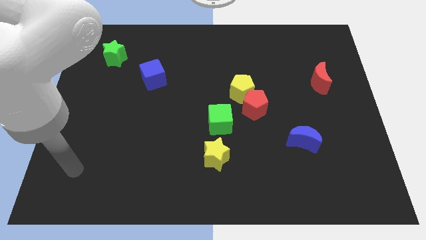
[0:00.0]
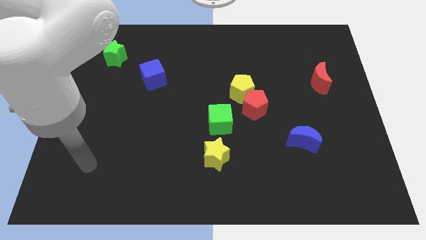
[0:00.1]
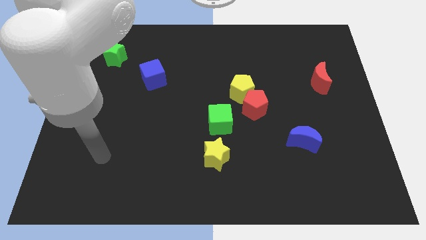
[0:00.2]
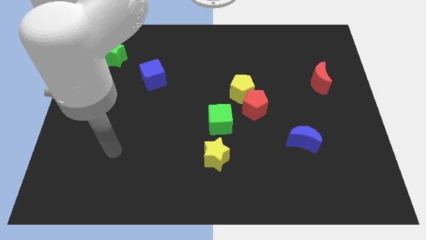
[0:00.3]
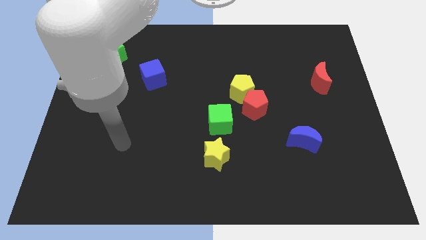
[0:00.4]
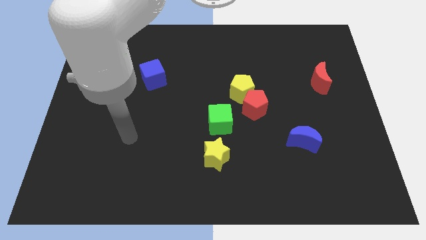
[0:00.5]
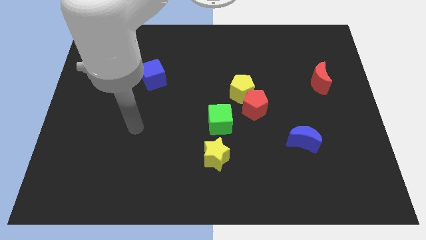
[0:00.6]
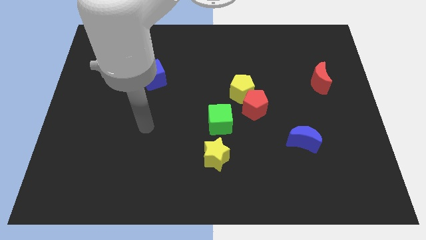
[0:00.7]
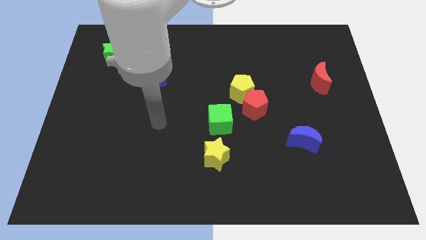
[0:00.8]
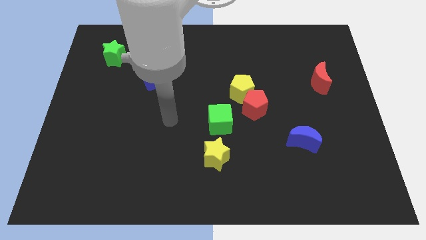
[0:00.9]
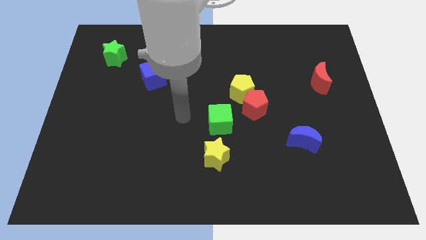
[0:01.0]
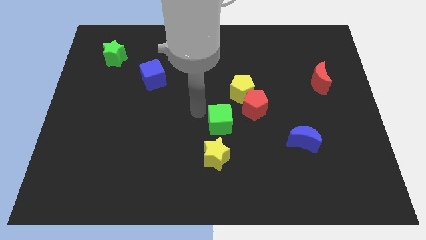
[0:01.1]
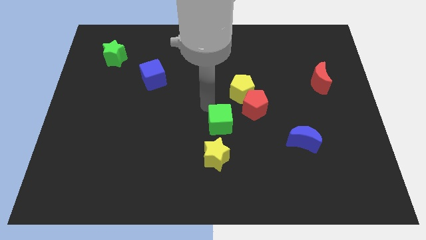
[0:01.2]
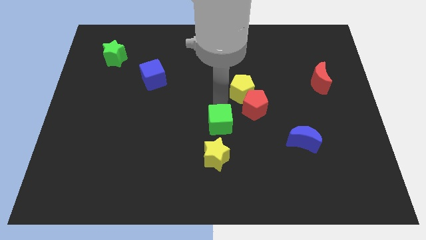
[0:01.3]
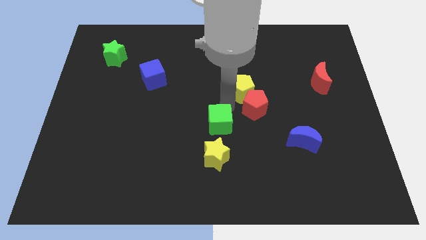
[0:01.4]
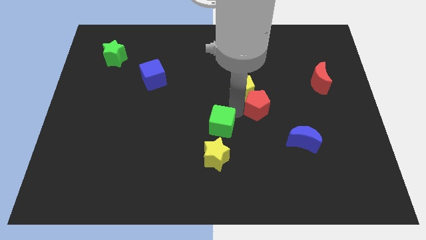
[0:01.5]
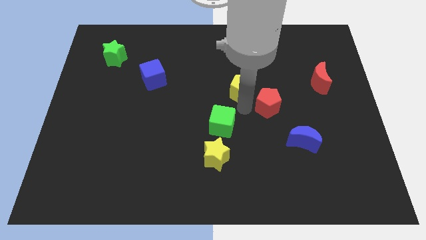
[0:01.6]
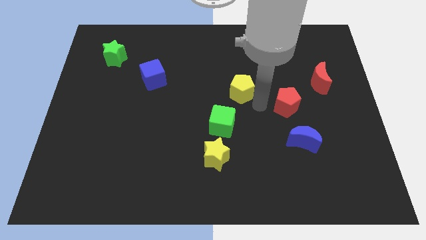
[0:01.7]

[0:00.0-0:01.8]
separate the yellow pentagon from the red pentagon

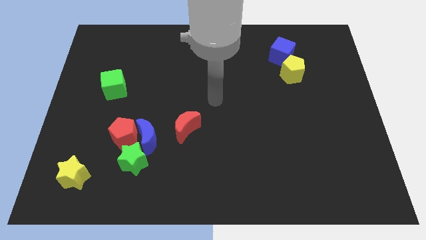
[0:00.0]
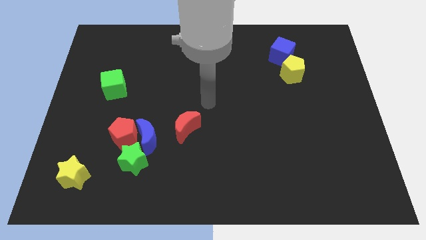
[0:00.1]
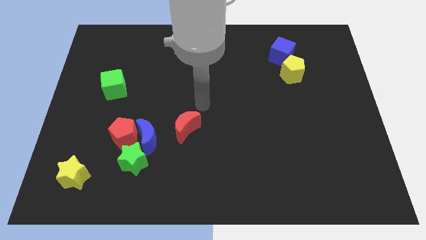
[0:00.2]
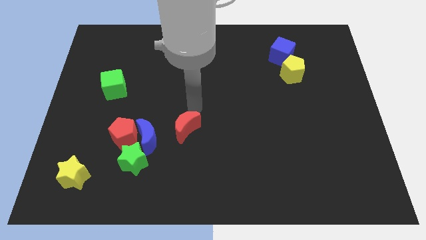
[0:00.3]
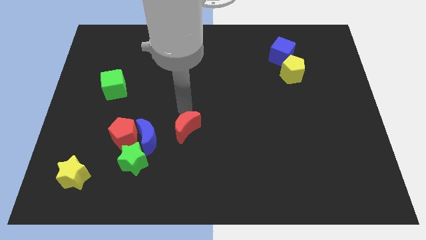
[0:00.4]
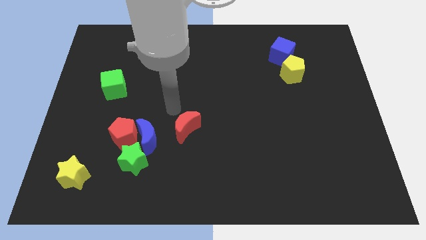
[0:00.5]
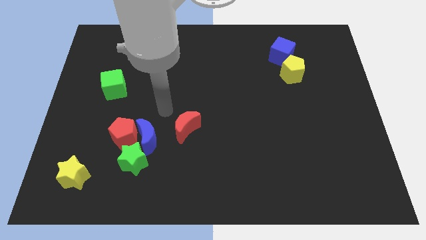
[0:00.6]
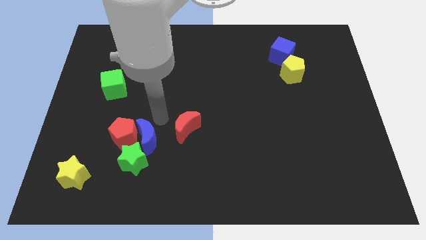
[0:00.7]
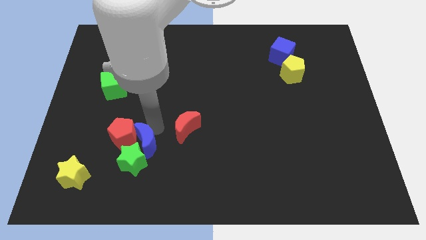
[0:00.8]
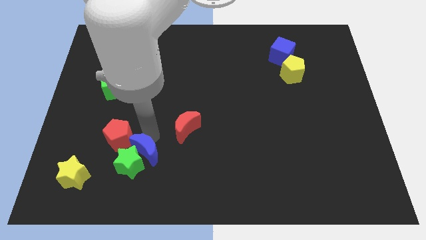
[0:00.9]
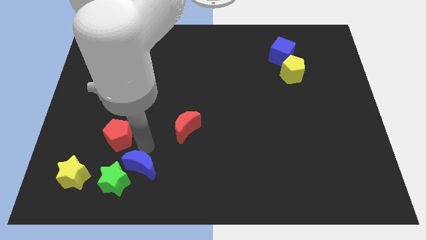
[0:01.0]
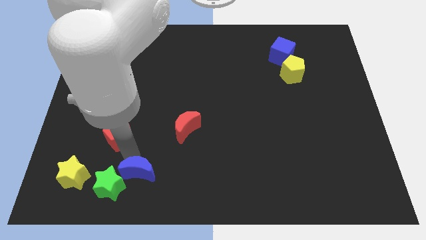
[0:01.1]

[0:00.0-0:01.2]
pull the red pentagon apart from the blue moon and green star

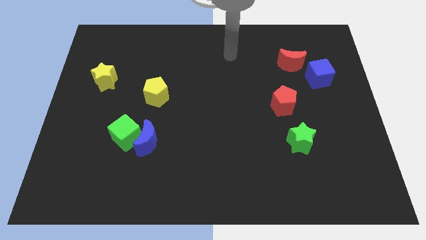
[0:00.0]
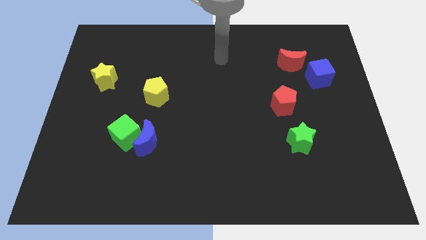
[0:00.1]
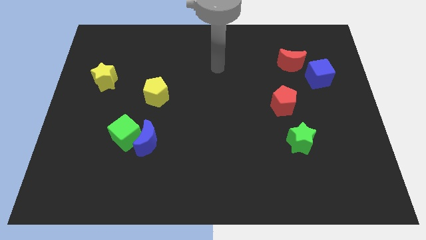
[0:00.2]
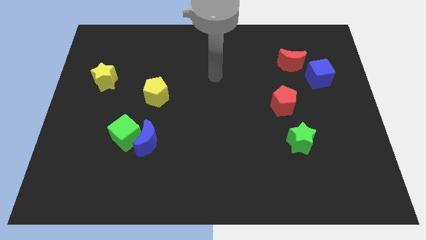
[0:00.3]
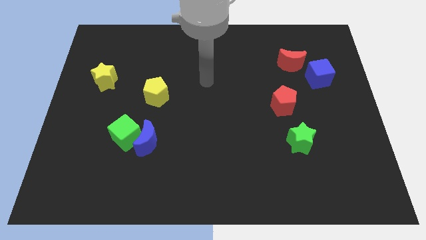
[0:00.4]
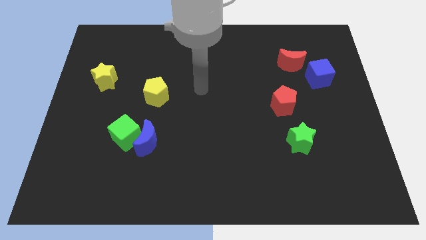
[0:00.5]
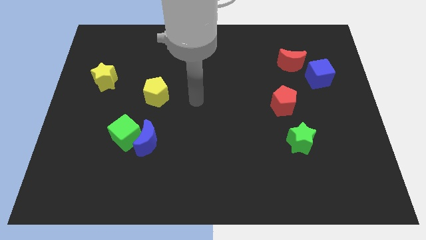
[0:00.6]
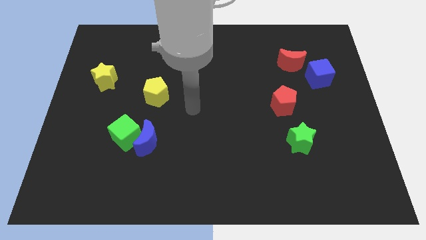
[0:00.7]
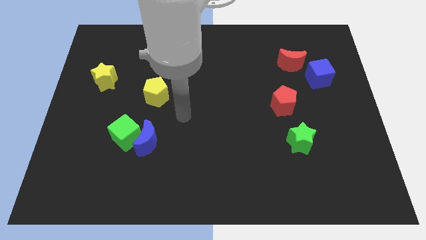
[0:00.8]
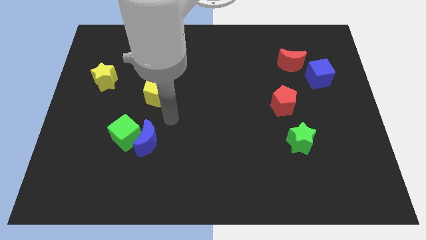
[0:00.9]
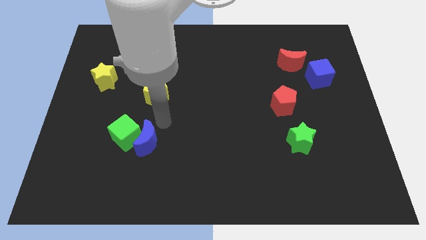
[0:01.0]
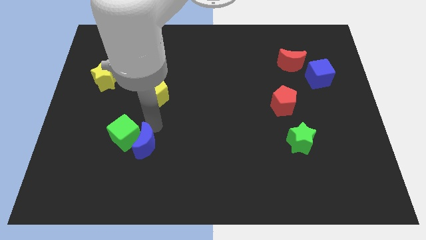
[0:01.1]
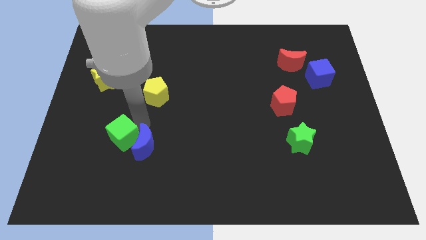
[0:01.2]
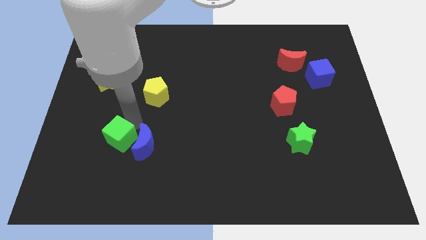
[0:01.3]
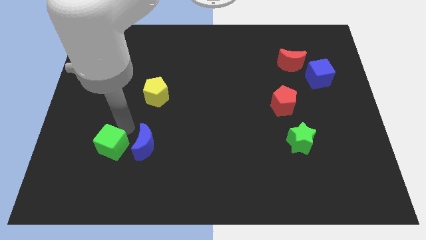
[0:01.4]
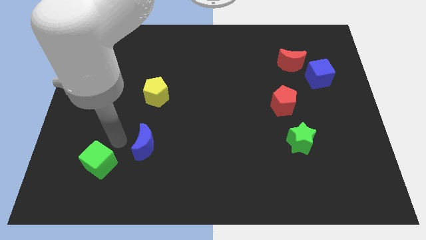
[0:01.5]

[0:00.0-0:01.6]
separate the blue moon from the green cube

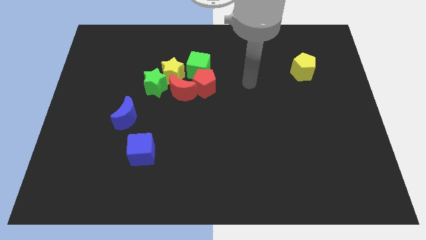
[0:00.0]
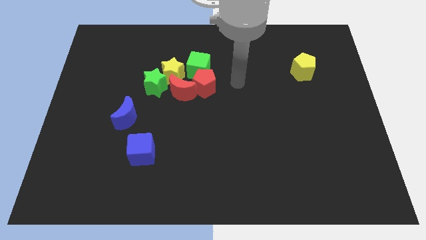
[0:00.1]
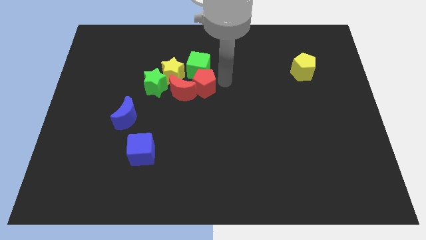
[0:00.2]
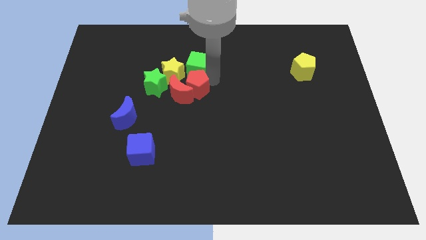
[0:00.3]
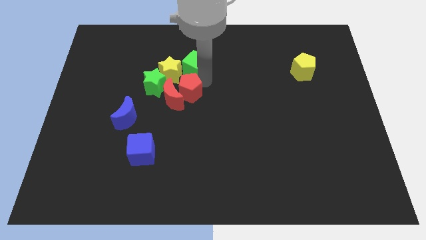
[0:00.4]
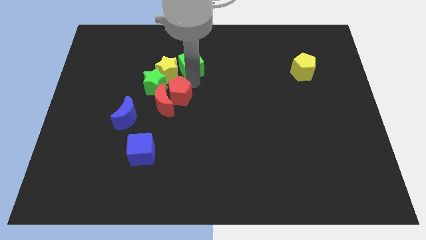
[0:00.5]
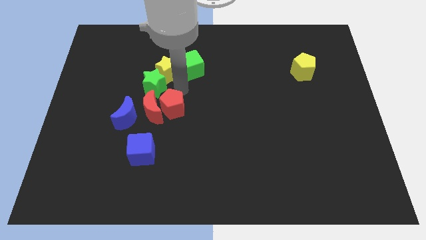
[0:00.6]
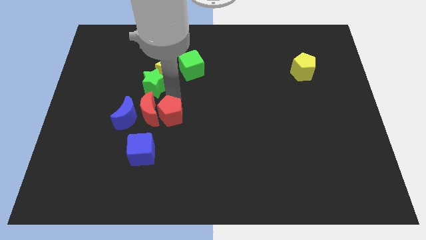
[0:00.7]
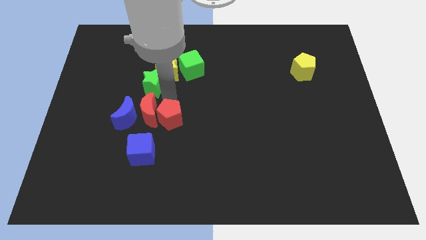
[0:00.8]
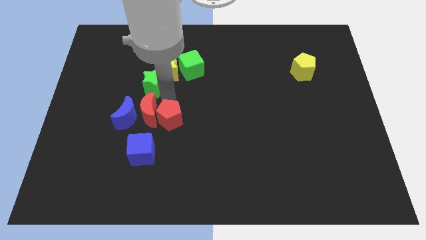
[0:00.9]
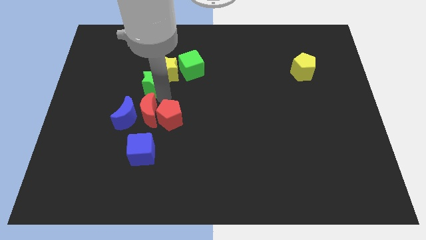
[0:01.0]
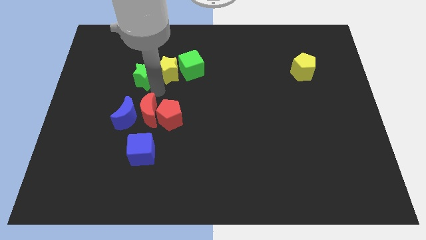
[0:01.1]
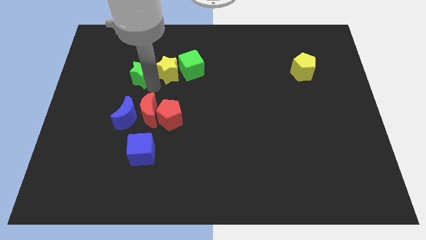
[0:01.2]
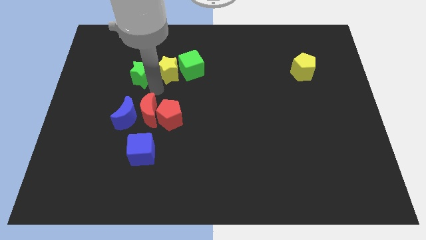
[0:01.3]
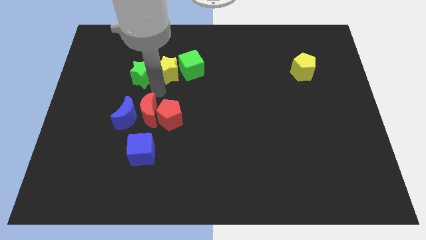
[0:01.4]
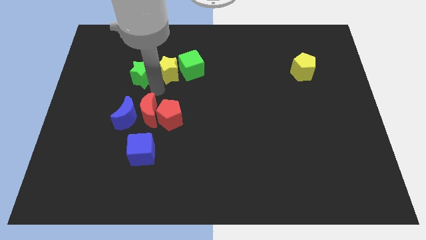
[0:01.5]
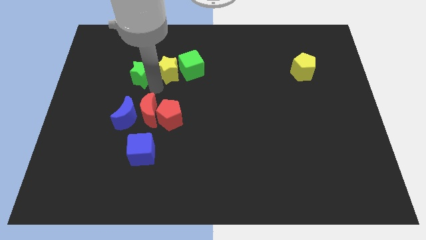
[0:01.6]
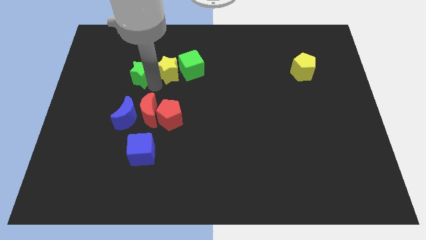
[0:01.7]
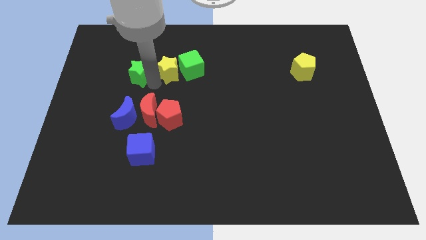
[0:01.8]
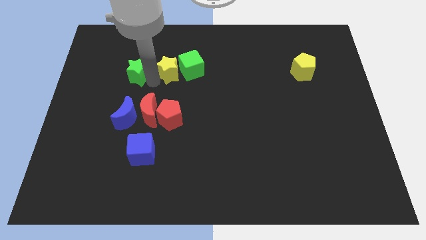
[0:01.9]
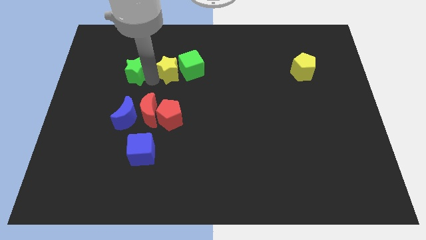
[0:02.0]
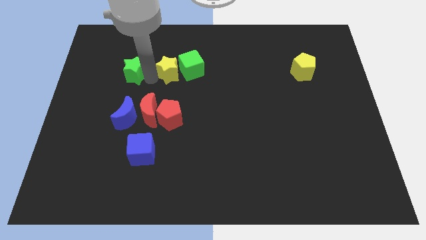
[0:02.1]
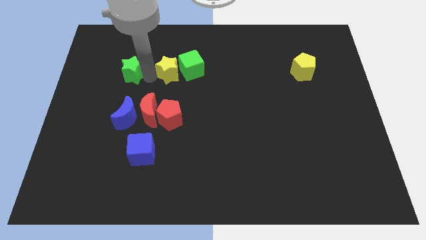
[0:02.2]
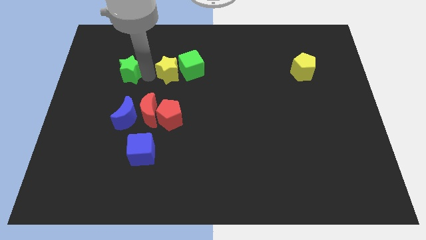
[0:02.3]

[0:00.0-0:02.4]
pull the green star apart from the yellow star and red moon

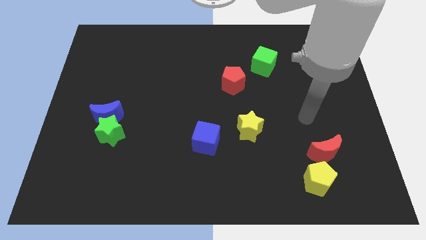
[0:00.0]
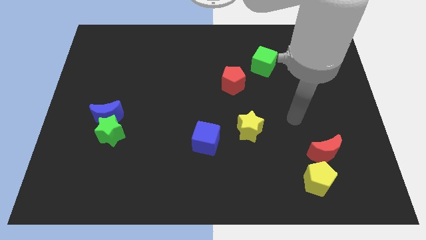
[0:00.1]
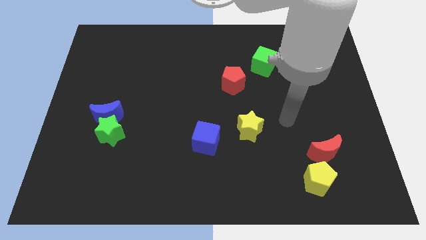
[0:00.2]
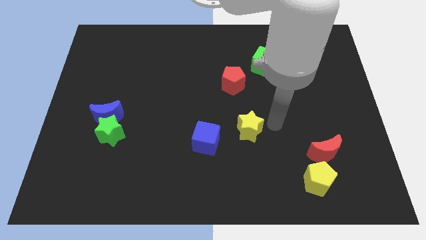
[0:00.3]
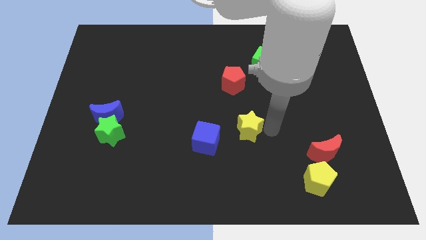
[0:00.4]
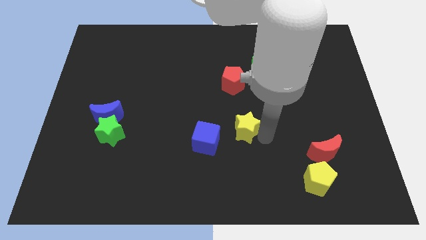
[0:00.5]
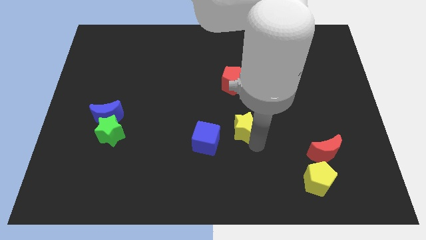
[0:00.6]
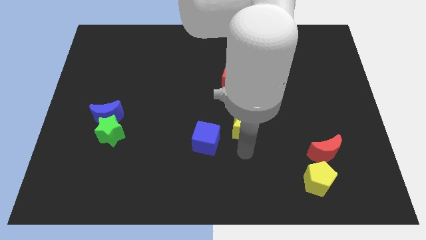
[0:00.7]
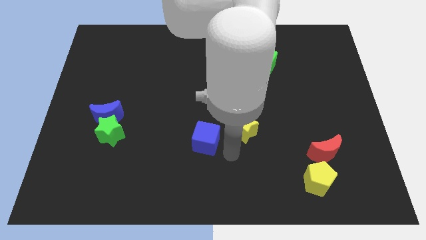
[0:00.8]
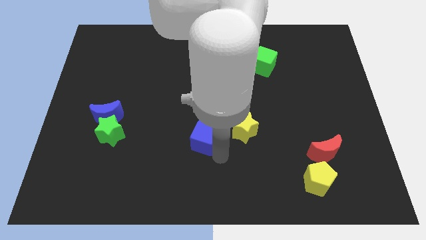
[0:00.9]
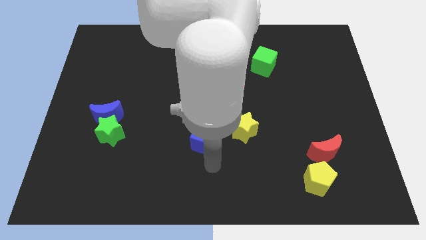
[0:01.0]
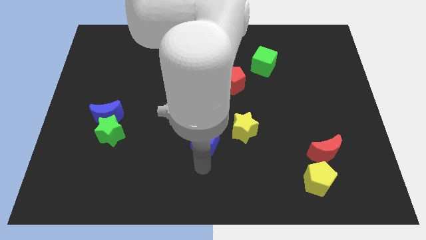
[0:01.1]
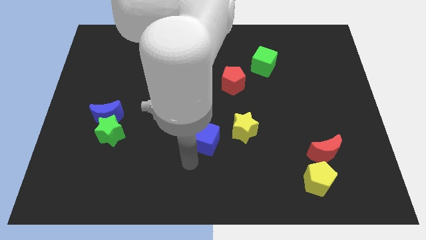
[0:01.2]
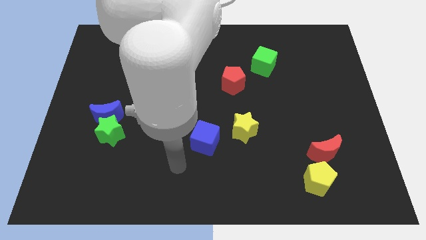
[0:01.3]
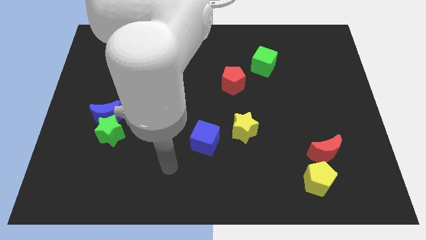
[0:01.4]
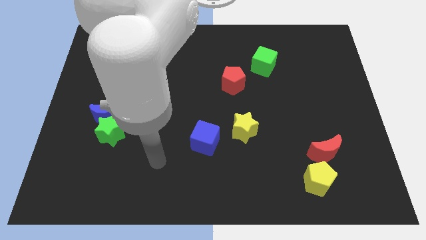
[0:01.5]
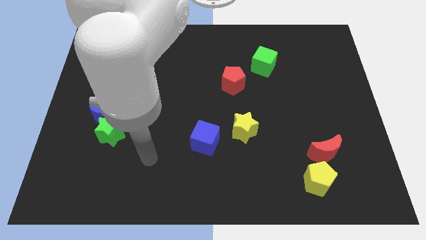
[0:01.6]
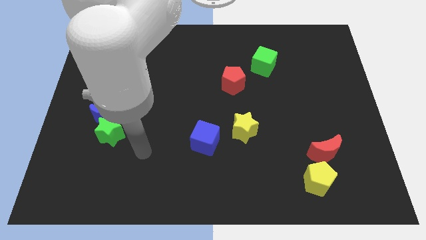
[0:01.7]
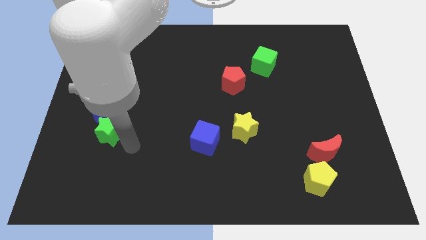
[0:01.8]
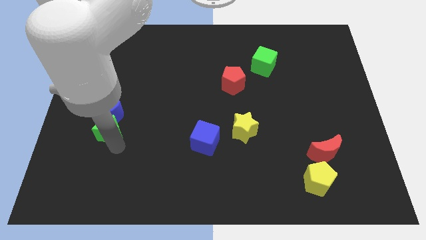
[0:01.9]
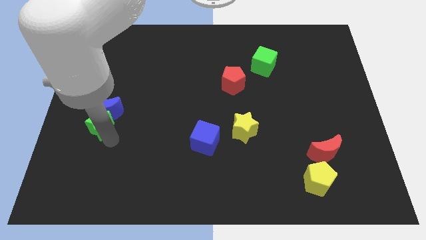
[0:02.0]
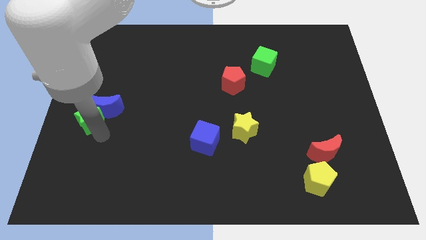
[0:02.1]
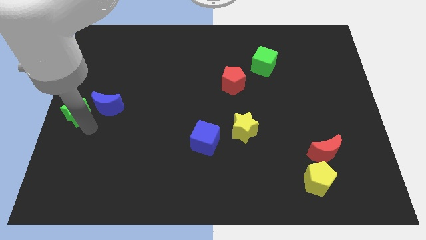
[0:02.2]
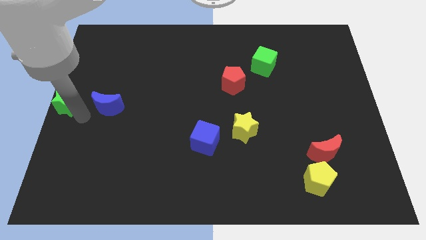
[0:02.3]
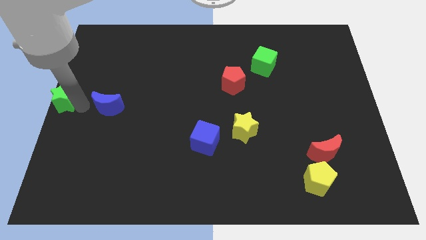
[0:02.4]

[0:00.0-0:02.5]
separate the blue moon from the green star

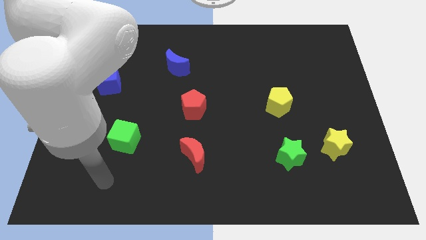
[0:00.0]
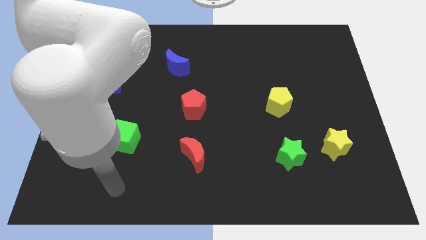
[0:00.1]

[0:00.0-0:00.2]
move the green star away from the yellow star
